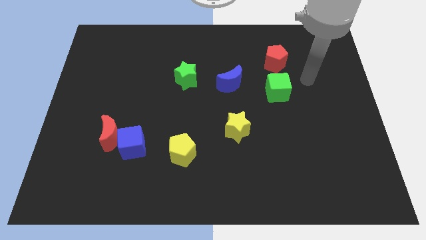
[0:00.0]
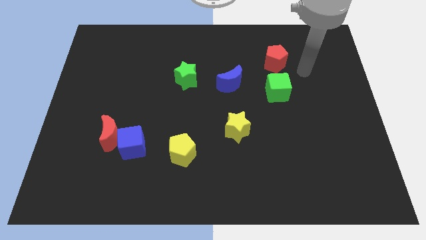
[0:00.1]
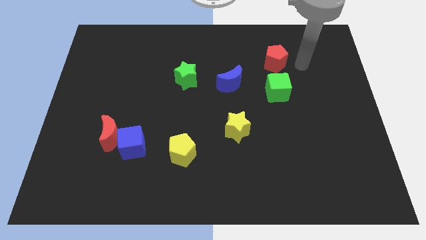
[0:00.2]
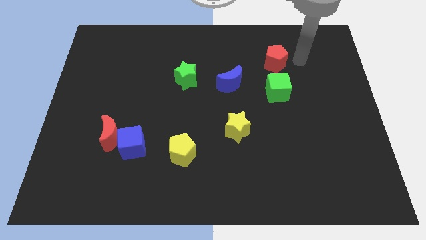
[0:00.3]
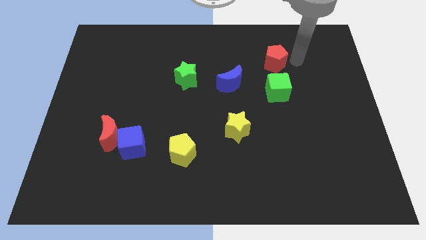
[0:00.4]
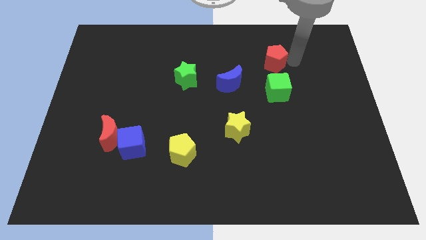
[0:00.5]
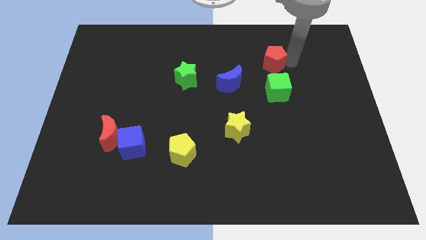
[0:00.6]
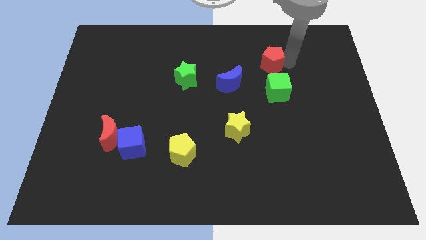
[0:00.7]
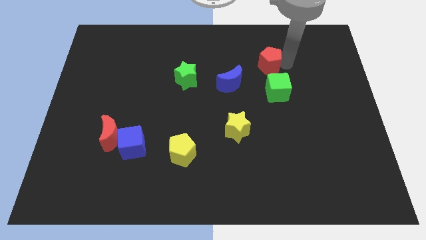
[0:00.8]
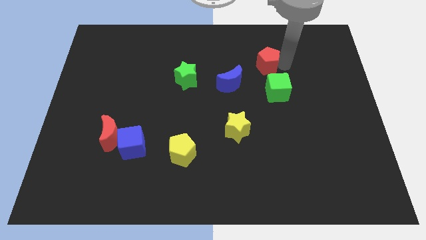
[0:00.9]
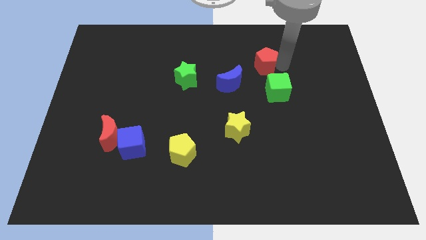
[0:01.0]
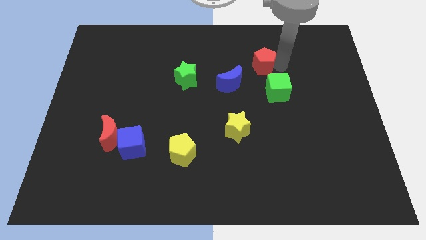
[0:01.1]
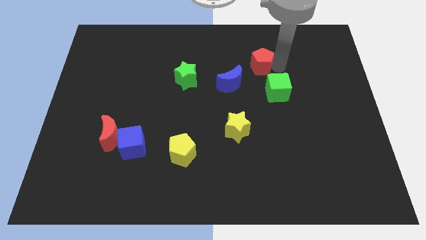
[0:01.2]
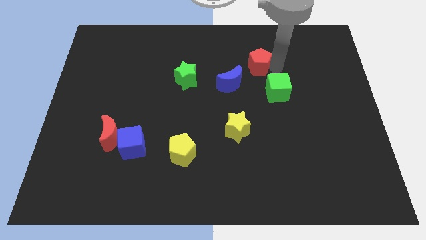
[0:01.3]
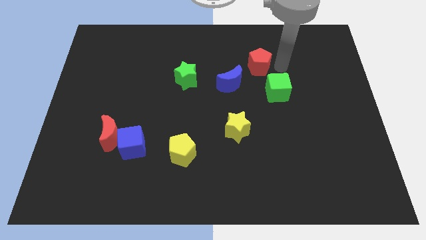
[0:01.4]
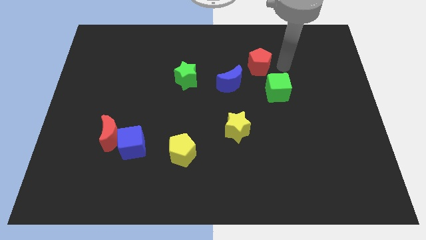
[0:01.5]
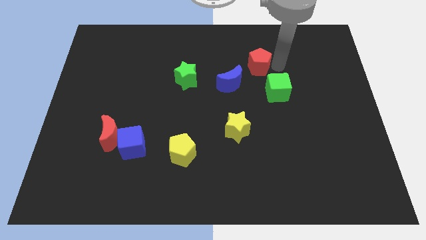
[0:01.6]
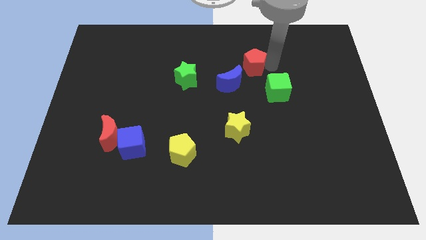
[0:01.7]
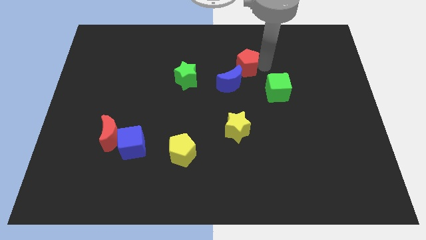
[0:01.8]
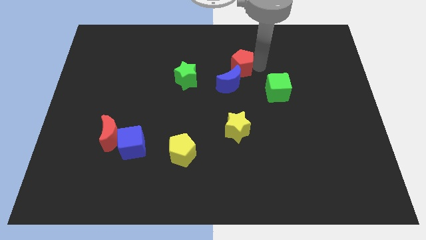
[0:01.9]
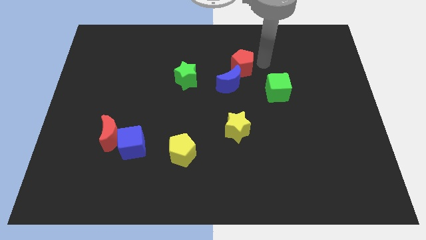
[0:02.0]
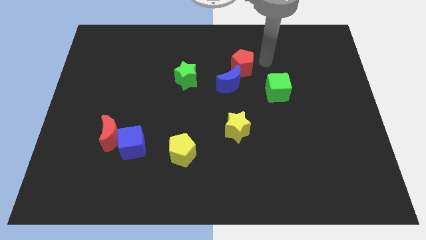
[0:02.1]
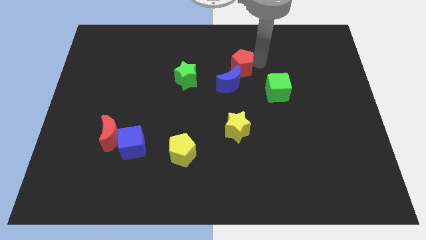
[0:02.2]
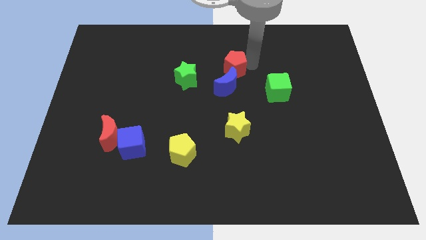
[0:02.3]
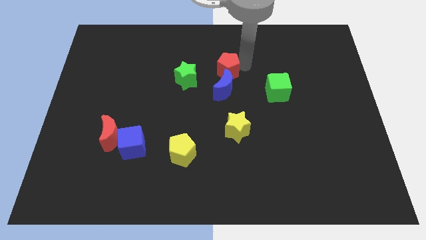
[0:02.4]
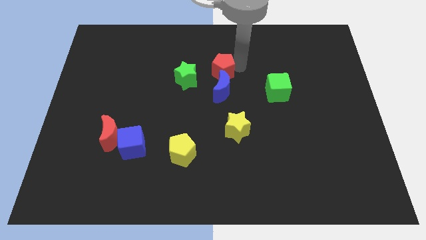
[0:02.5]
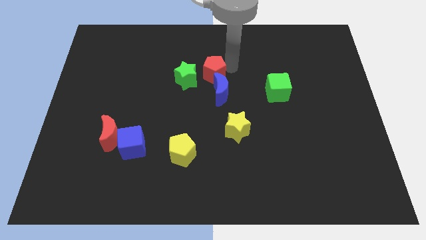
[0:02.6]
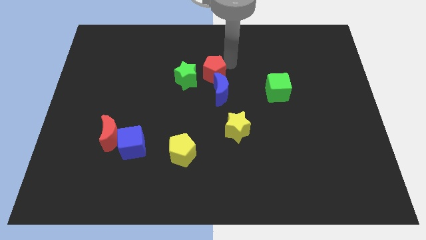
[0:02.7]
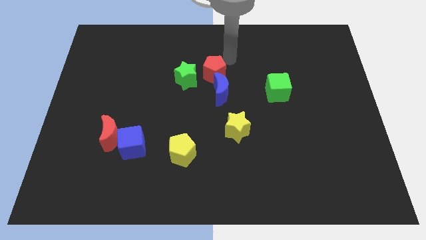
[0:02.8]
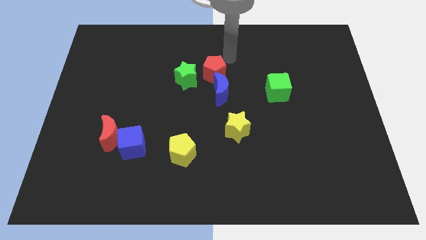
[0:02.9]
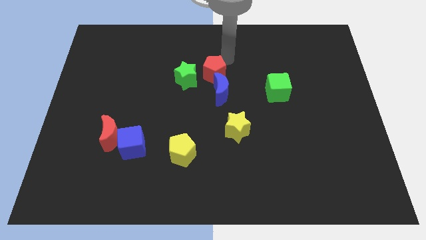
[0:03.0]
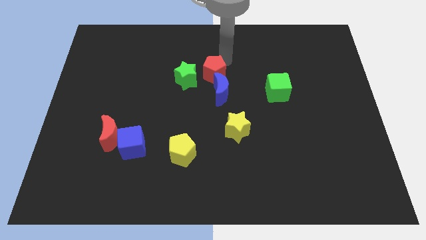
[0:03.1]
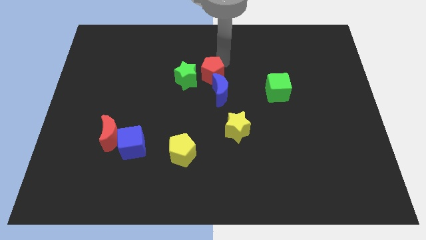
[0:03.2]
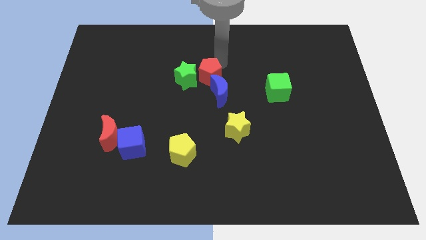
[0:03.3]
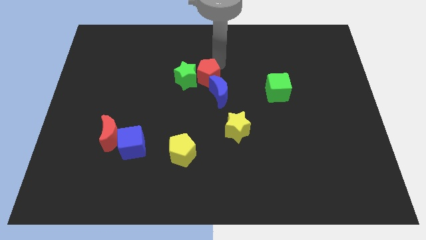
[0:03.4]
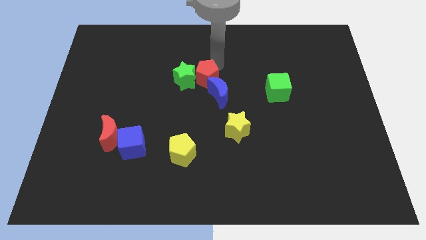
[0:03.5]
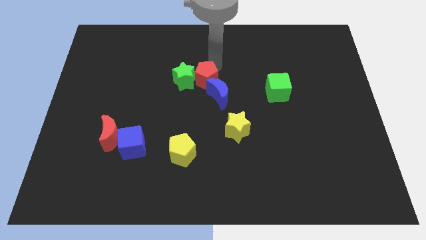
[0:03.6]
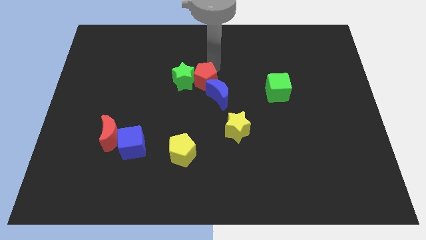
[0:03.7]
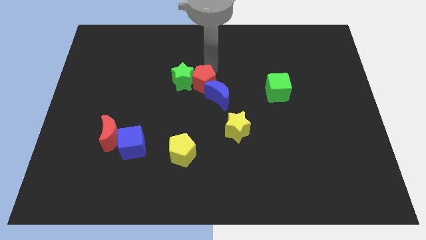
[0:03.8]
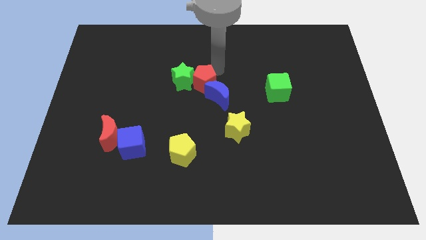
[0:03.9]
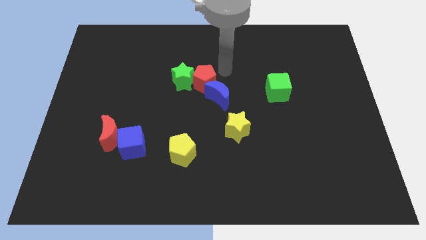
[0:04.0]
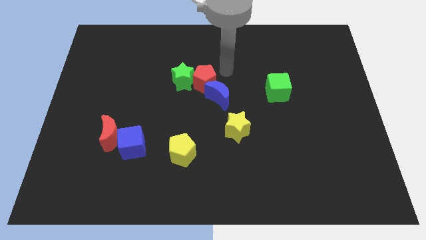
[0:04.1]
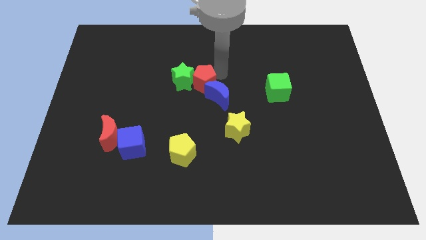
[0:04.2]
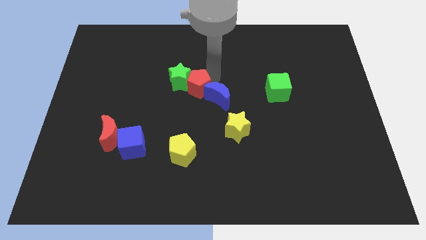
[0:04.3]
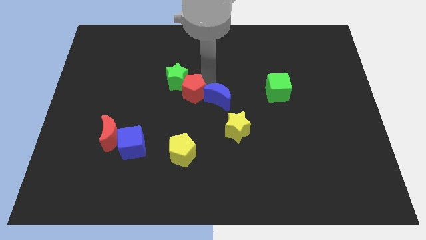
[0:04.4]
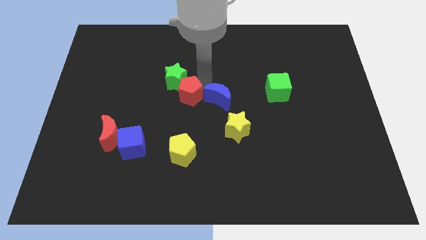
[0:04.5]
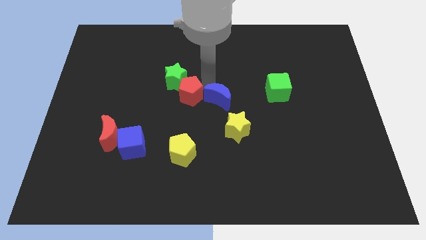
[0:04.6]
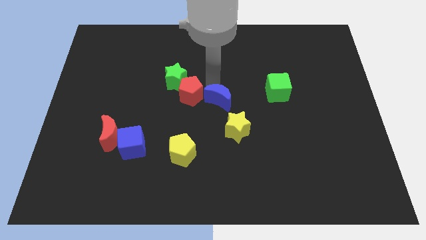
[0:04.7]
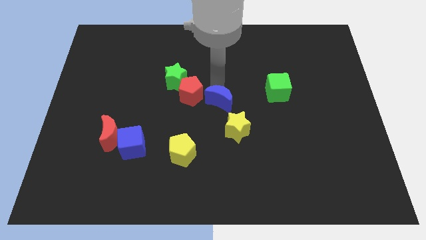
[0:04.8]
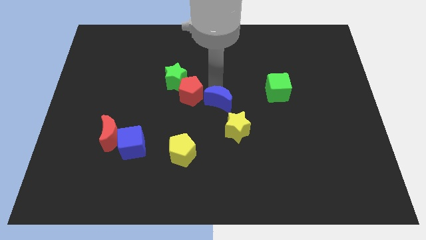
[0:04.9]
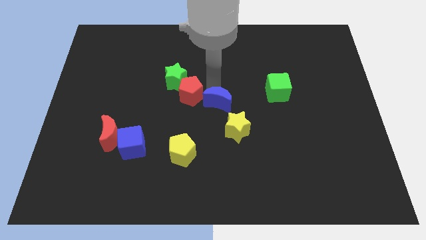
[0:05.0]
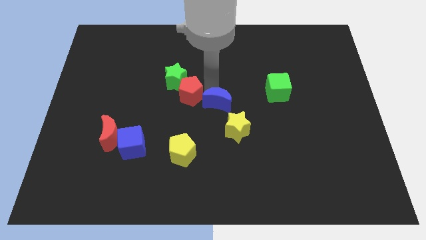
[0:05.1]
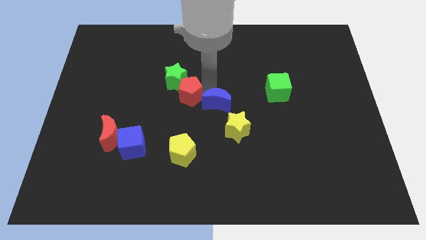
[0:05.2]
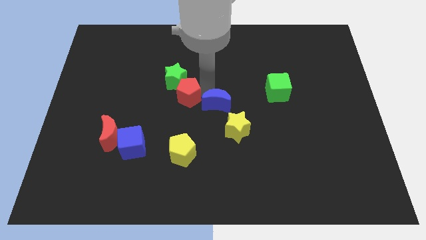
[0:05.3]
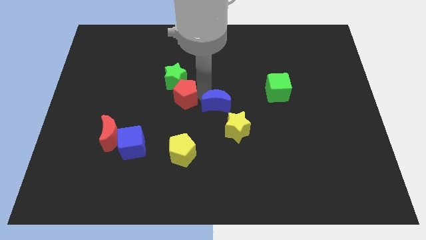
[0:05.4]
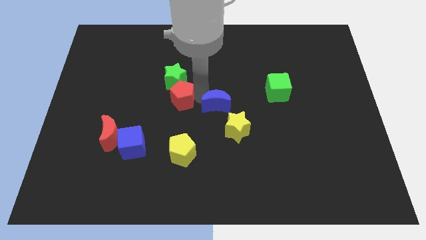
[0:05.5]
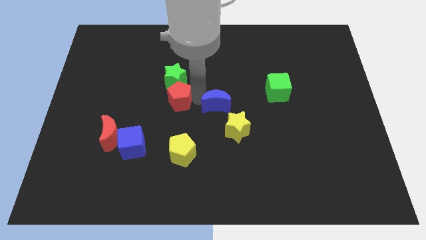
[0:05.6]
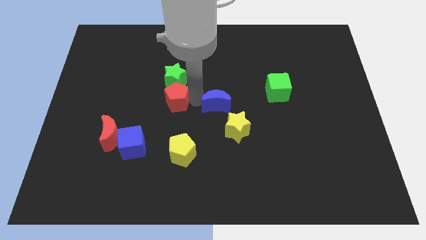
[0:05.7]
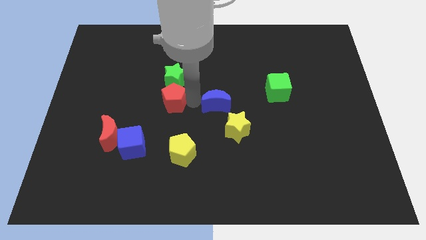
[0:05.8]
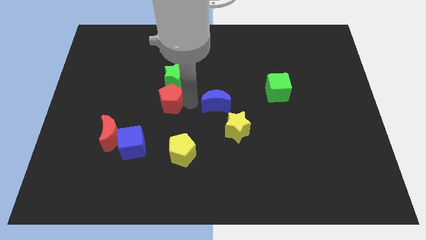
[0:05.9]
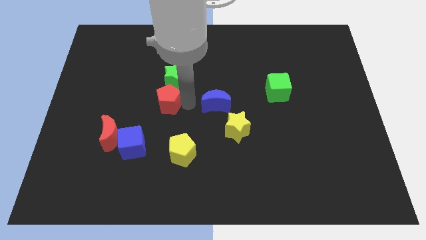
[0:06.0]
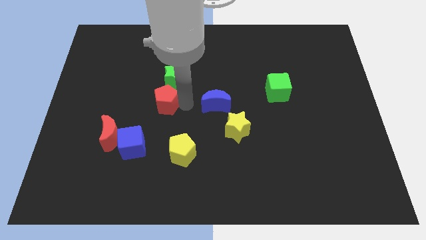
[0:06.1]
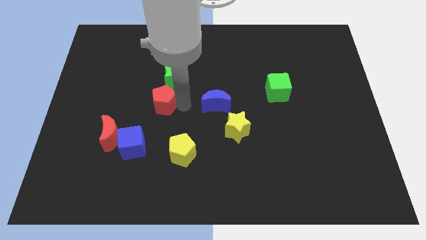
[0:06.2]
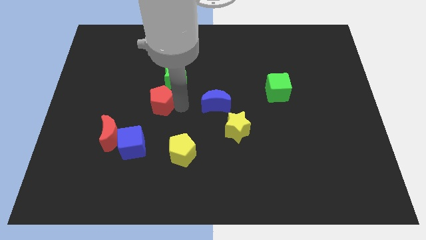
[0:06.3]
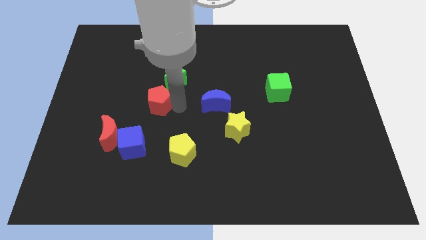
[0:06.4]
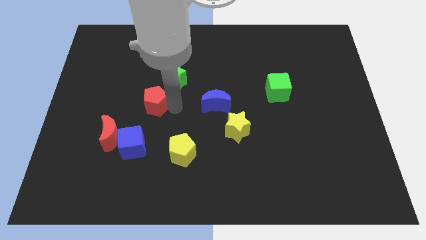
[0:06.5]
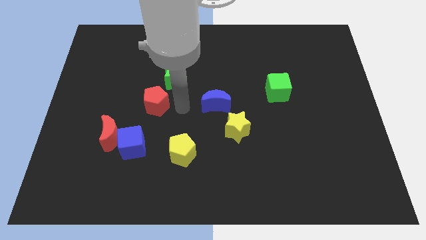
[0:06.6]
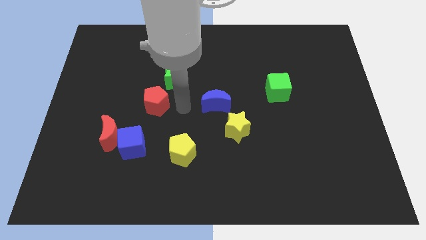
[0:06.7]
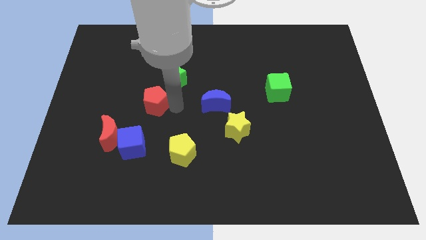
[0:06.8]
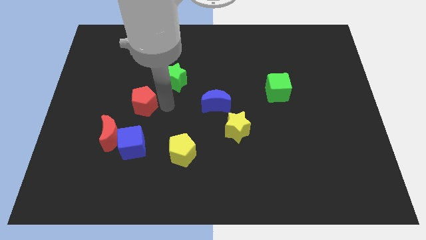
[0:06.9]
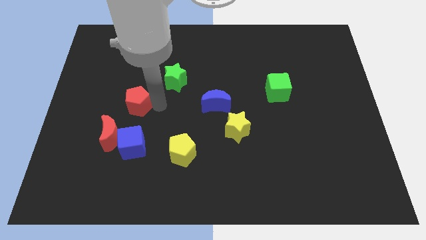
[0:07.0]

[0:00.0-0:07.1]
push the red pentagon above the red moon
